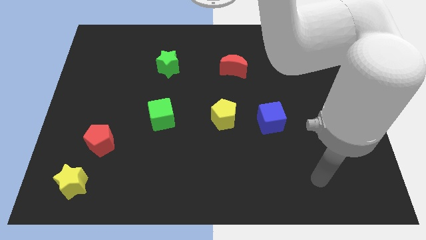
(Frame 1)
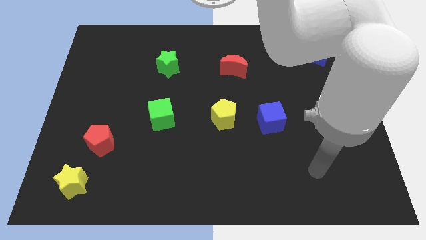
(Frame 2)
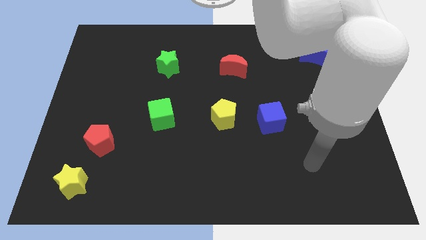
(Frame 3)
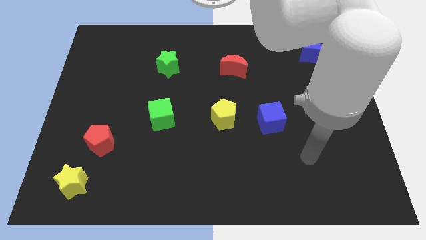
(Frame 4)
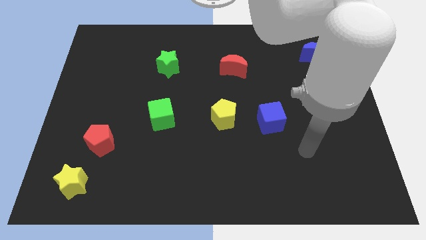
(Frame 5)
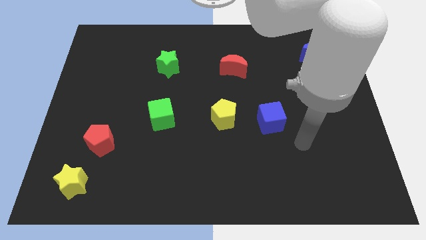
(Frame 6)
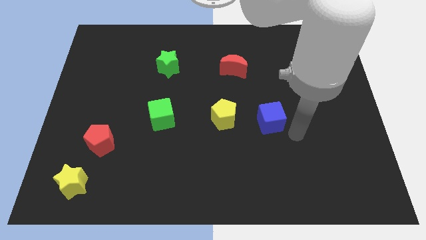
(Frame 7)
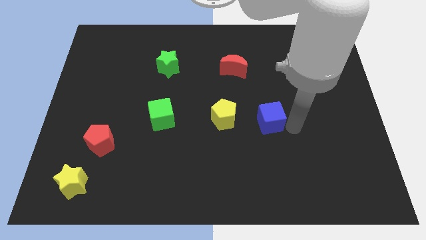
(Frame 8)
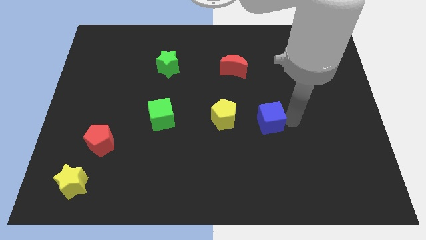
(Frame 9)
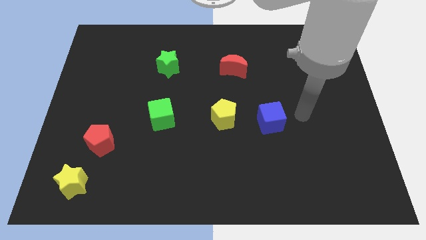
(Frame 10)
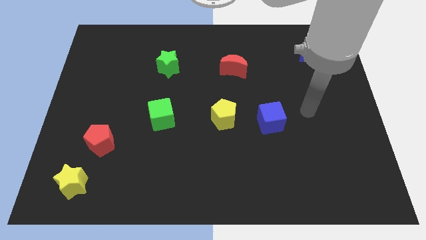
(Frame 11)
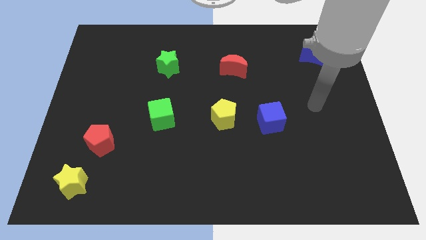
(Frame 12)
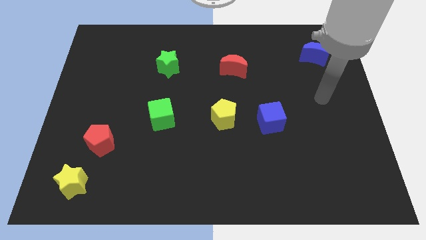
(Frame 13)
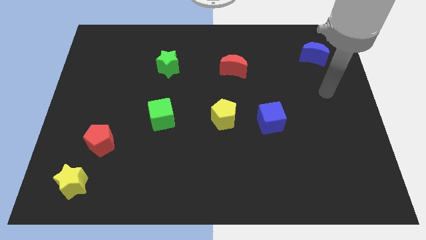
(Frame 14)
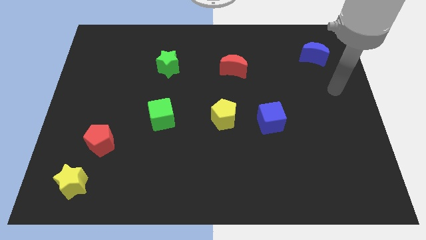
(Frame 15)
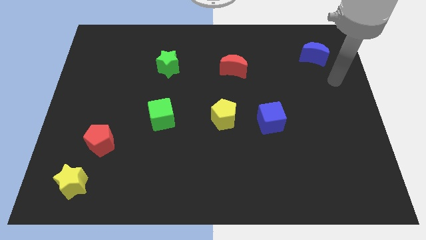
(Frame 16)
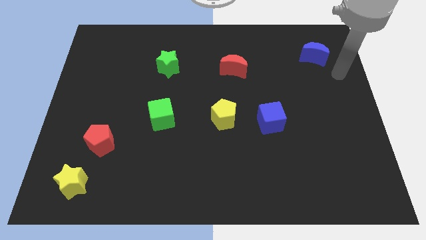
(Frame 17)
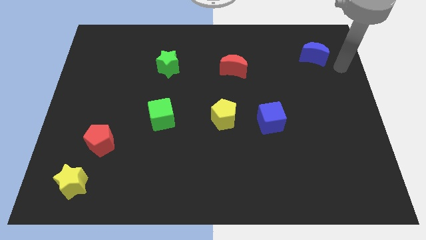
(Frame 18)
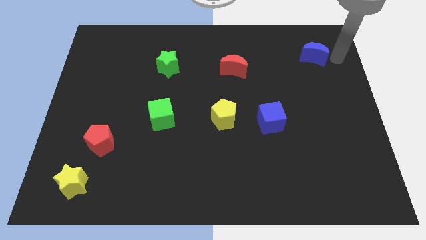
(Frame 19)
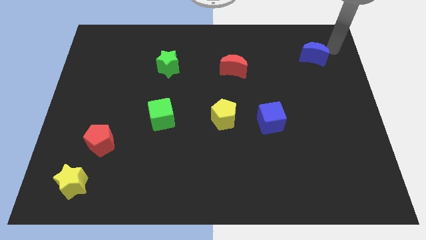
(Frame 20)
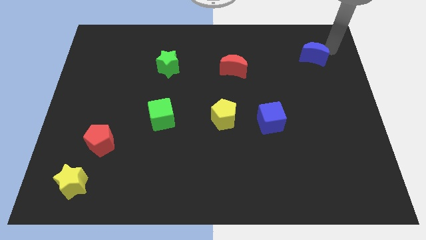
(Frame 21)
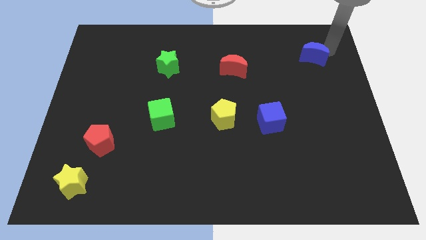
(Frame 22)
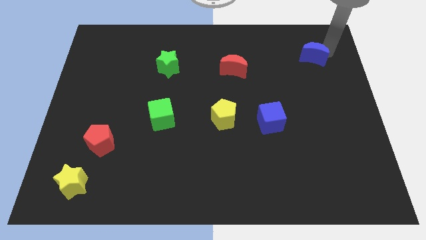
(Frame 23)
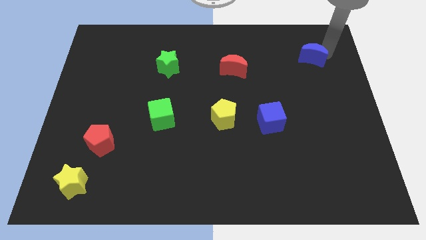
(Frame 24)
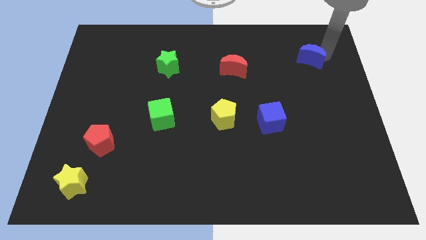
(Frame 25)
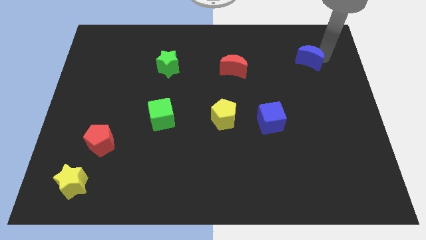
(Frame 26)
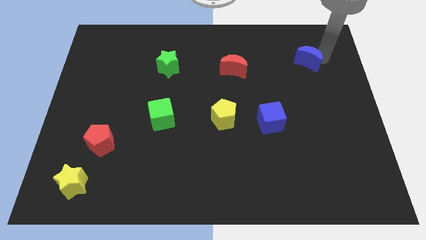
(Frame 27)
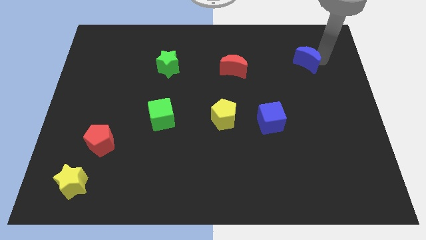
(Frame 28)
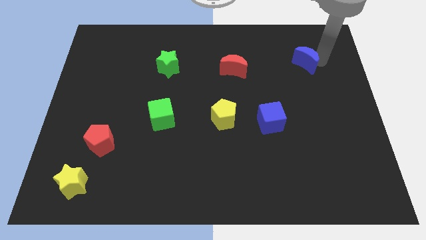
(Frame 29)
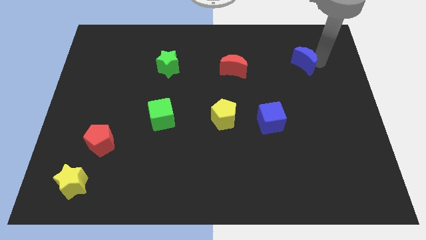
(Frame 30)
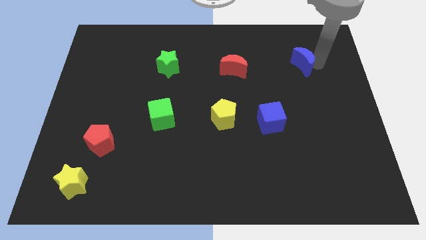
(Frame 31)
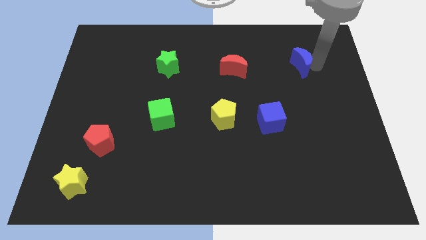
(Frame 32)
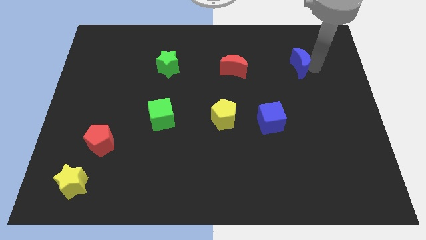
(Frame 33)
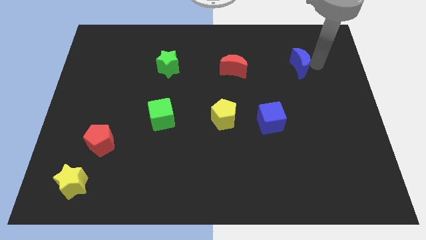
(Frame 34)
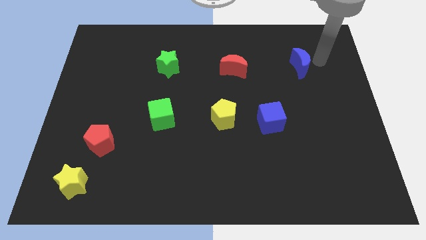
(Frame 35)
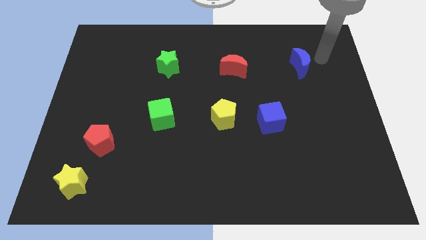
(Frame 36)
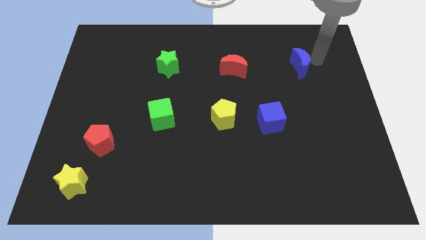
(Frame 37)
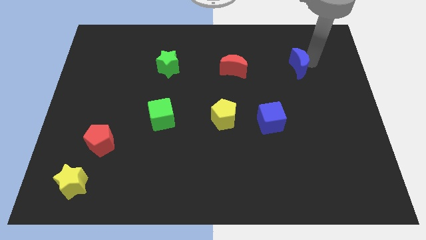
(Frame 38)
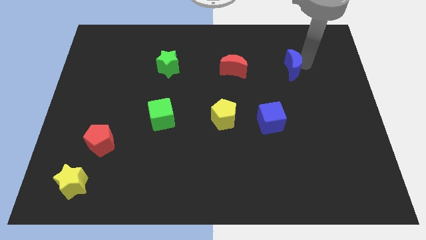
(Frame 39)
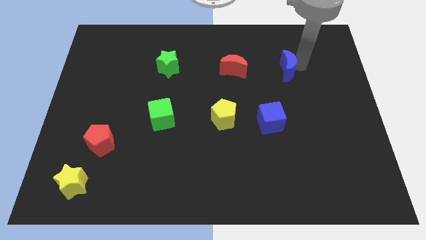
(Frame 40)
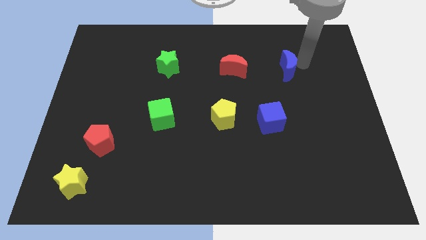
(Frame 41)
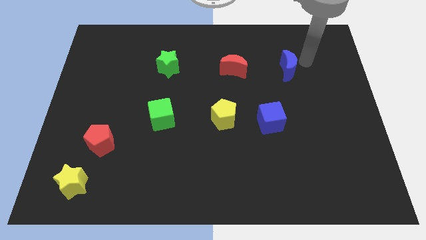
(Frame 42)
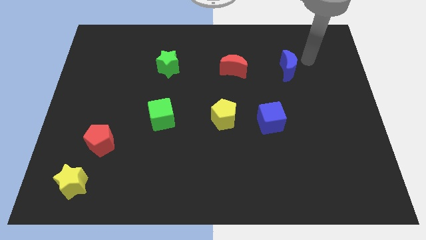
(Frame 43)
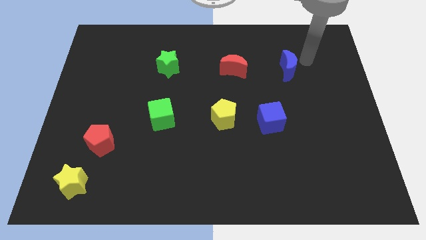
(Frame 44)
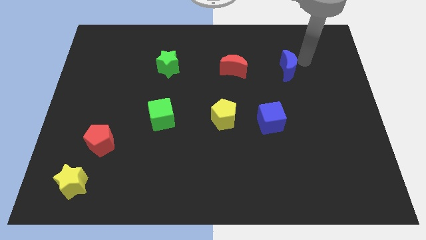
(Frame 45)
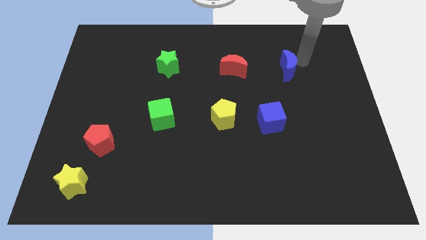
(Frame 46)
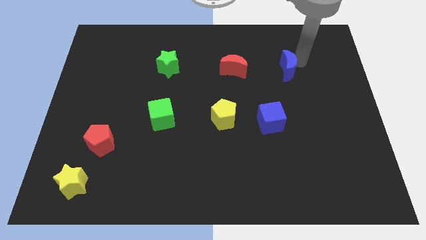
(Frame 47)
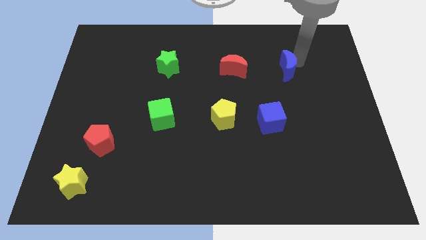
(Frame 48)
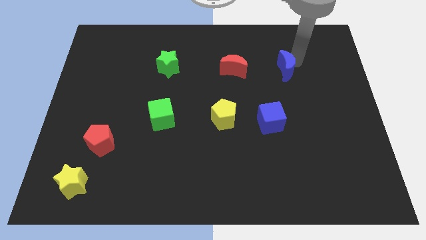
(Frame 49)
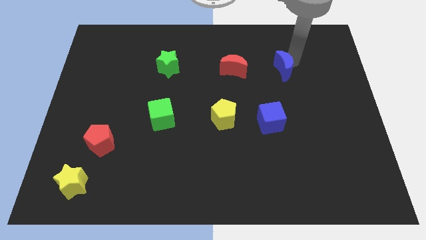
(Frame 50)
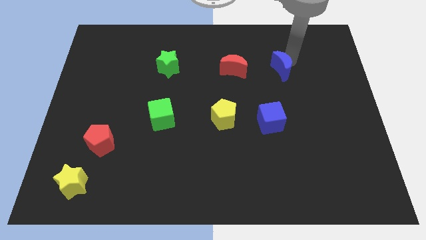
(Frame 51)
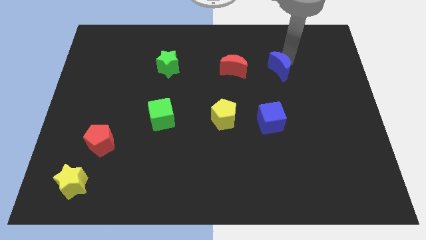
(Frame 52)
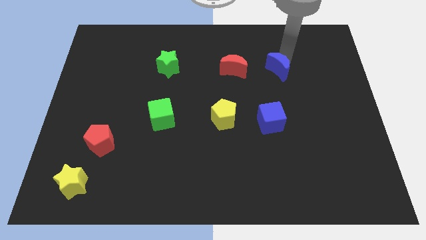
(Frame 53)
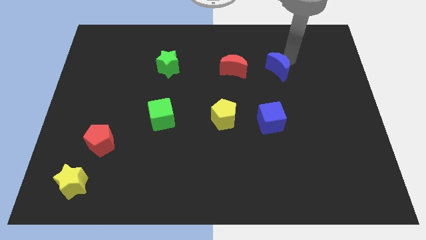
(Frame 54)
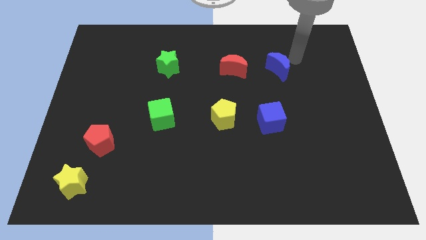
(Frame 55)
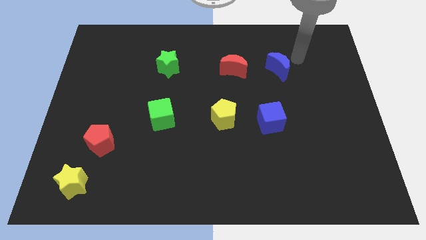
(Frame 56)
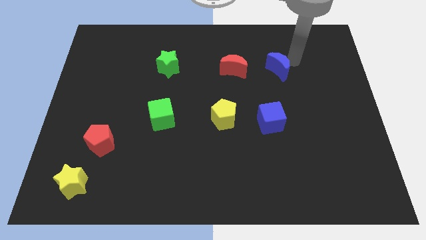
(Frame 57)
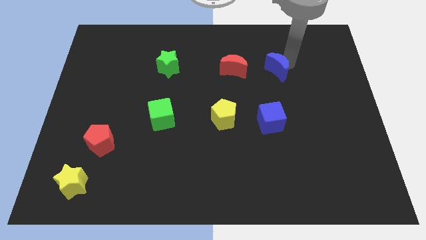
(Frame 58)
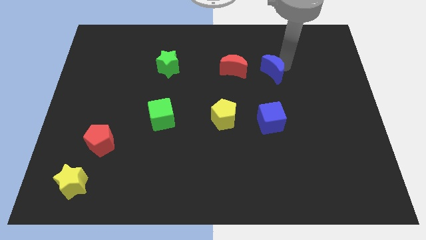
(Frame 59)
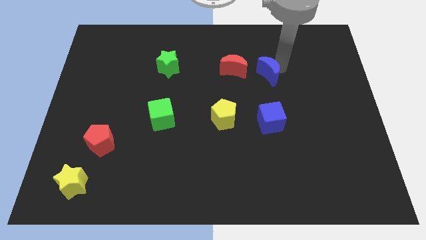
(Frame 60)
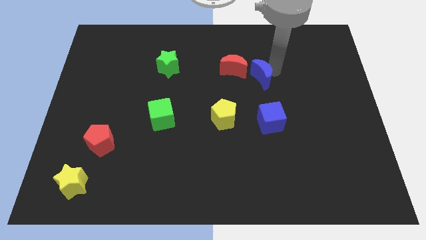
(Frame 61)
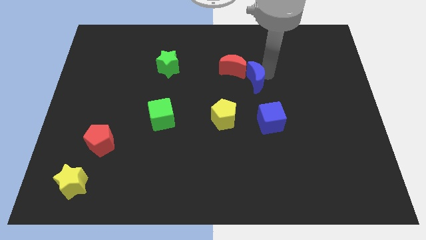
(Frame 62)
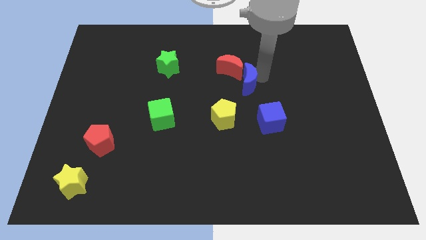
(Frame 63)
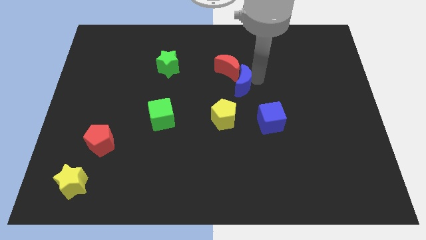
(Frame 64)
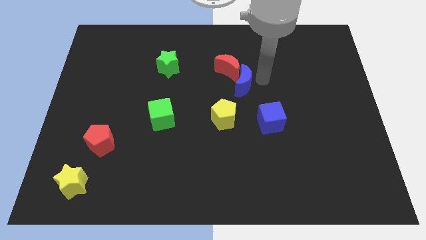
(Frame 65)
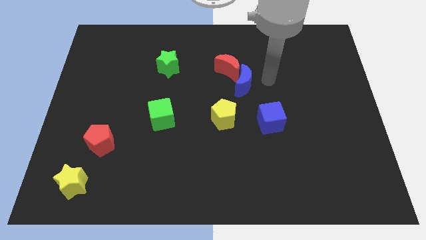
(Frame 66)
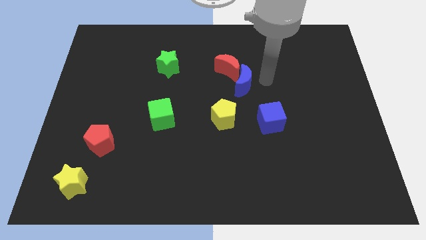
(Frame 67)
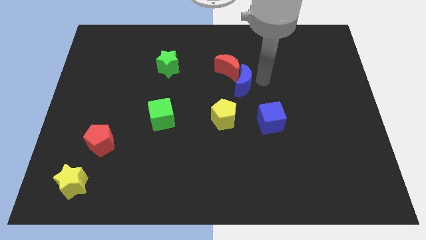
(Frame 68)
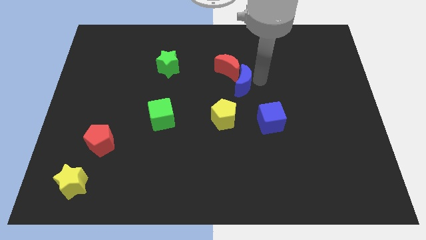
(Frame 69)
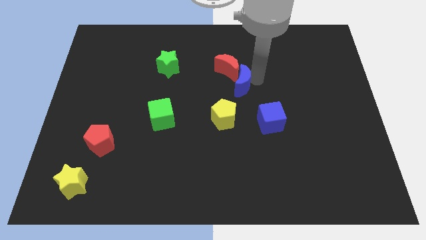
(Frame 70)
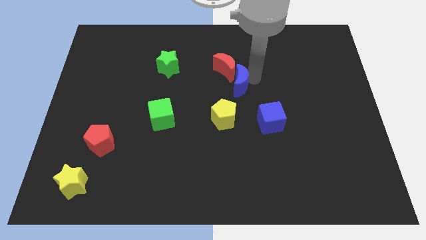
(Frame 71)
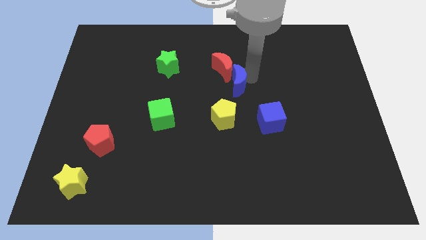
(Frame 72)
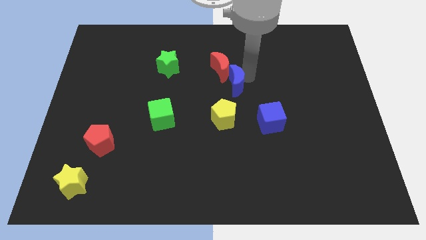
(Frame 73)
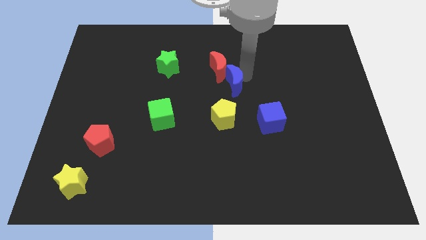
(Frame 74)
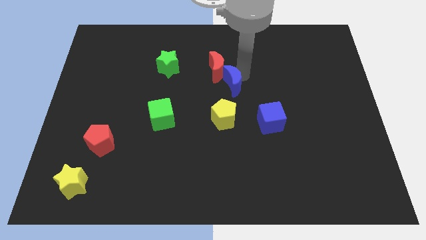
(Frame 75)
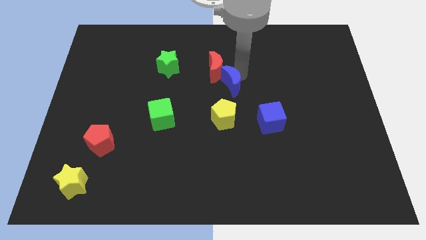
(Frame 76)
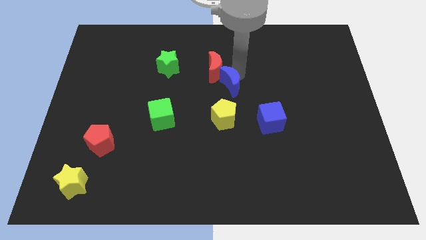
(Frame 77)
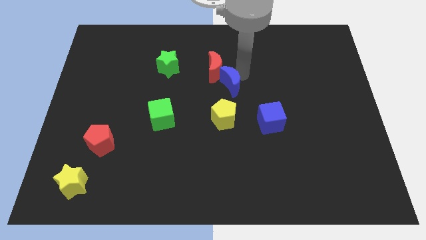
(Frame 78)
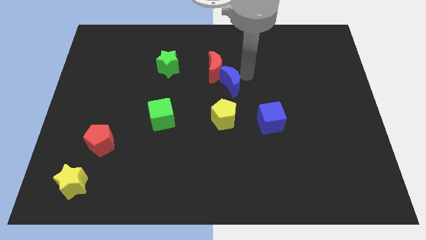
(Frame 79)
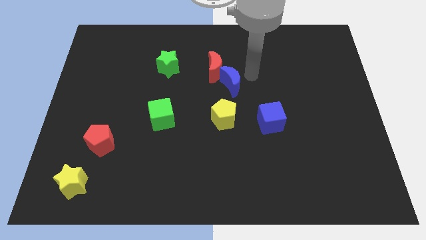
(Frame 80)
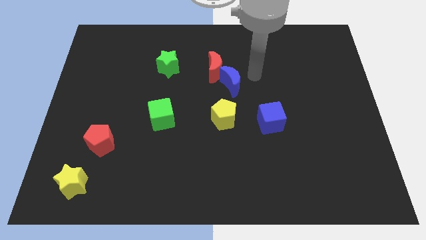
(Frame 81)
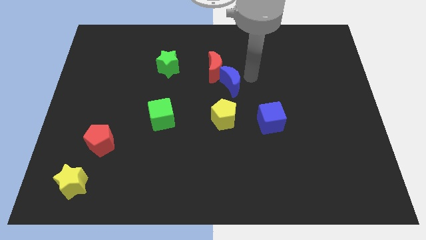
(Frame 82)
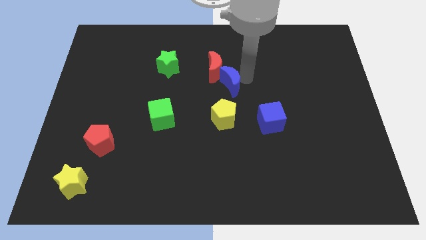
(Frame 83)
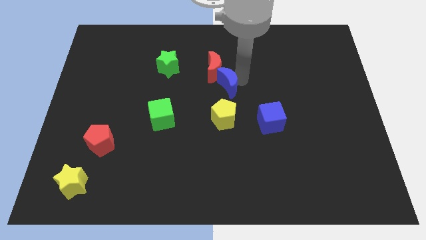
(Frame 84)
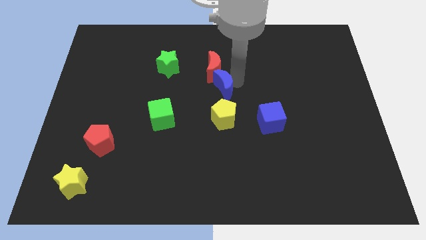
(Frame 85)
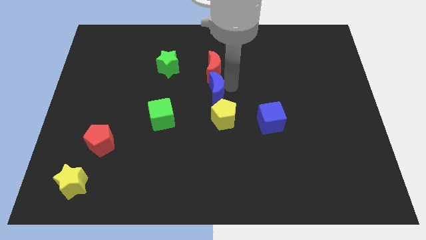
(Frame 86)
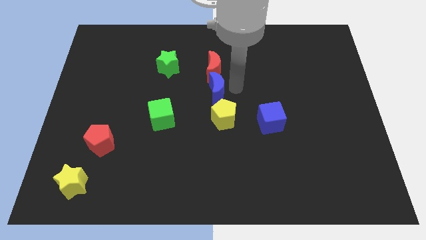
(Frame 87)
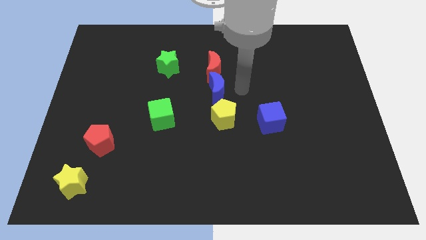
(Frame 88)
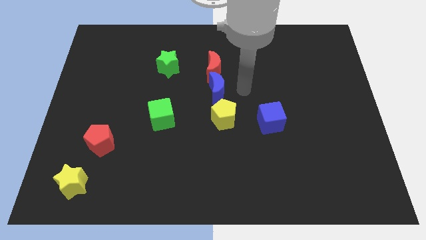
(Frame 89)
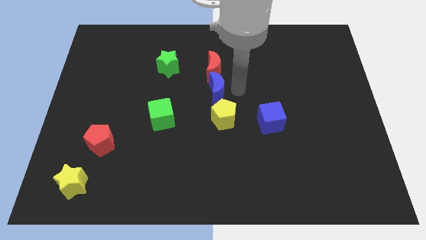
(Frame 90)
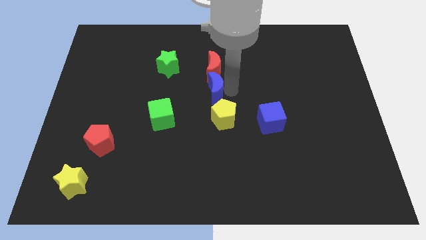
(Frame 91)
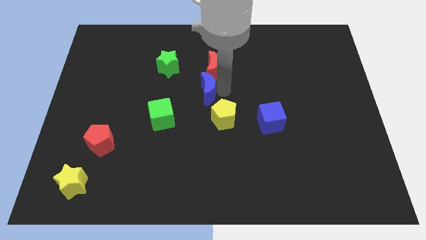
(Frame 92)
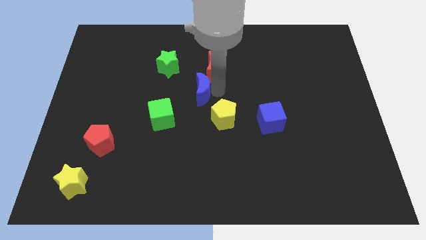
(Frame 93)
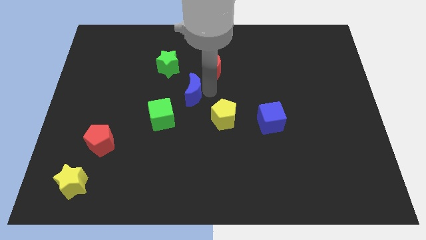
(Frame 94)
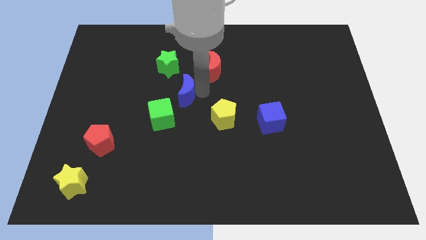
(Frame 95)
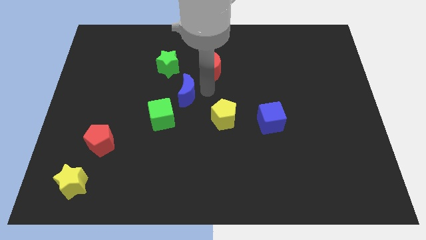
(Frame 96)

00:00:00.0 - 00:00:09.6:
slide the blue moon to the bottom of the green star
